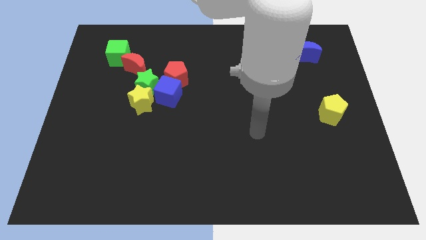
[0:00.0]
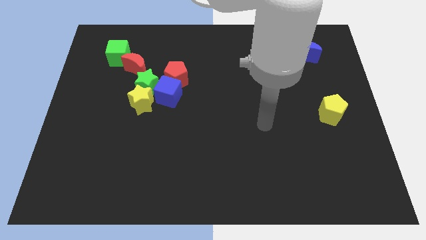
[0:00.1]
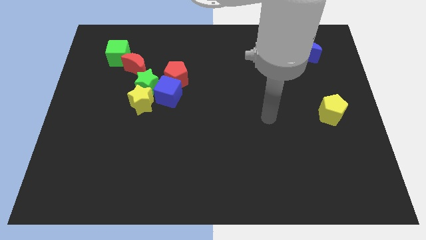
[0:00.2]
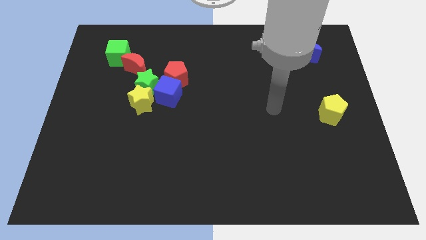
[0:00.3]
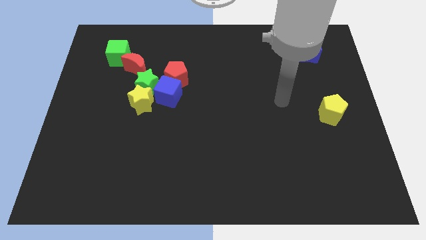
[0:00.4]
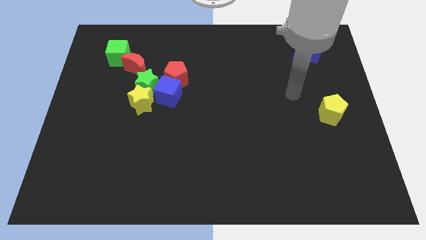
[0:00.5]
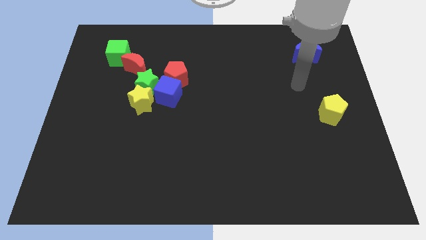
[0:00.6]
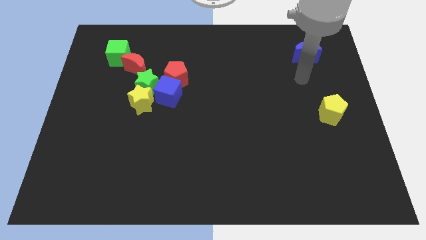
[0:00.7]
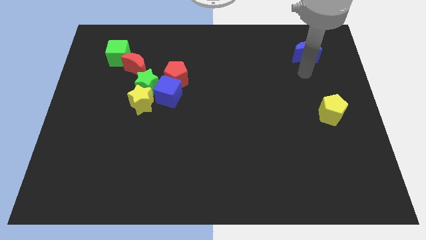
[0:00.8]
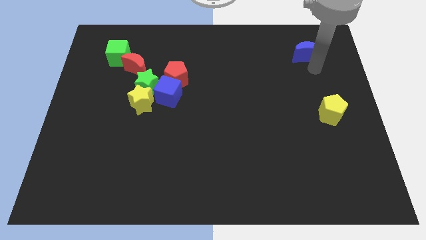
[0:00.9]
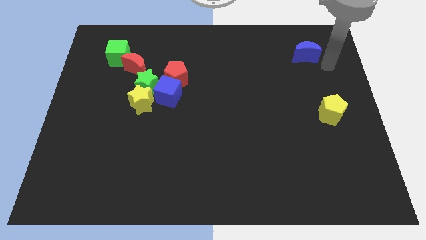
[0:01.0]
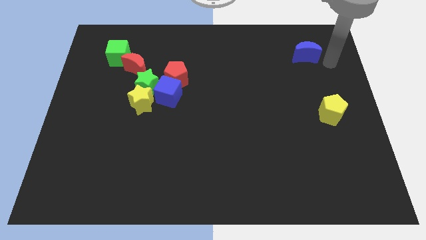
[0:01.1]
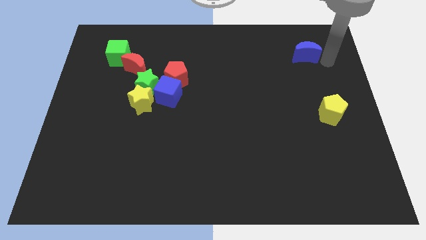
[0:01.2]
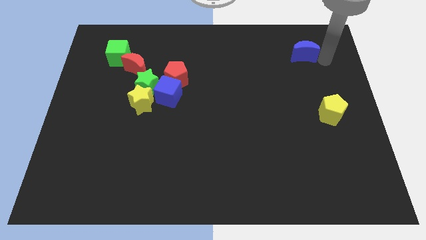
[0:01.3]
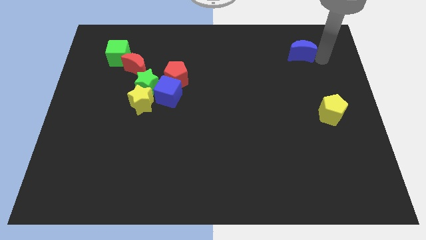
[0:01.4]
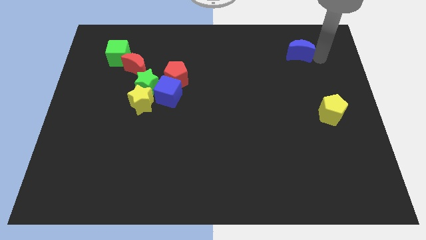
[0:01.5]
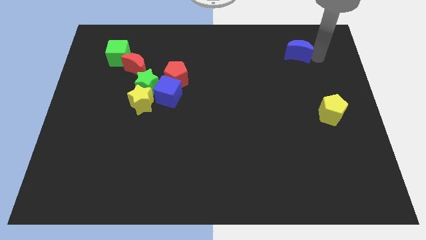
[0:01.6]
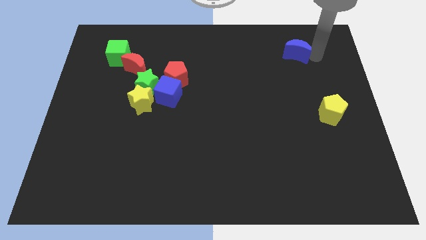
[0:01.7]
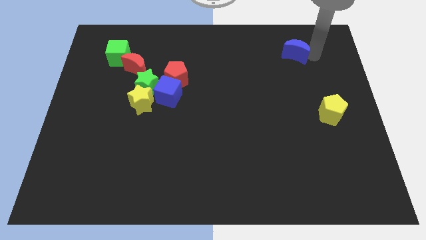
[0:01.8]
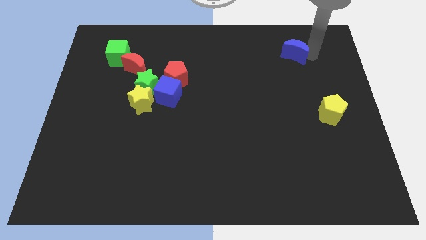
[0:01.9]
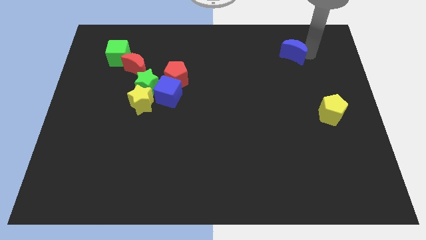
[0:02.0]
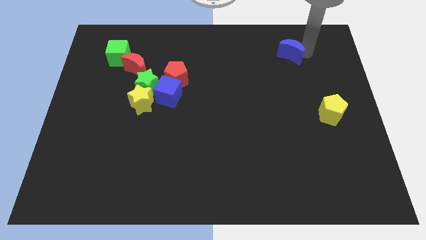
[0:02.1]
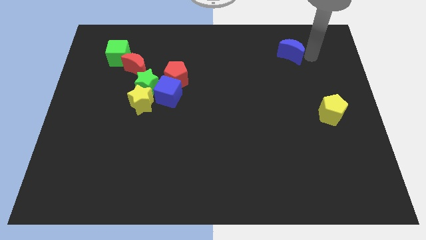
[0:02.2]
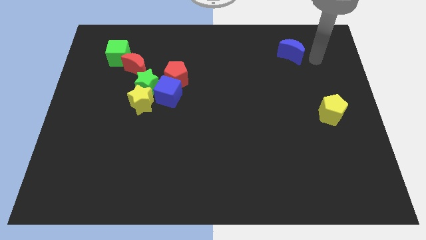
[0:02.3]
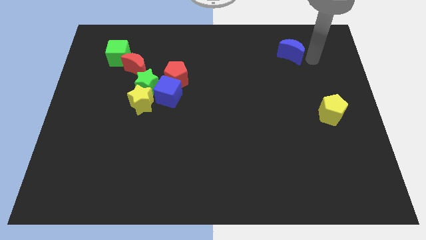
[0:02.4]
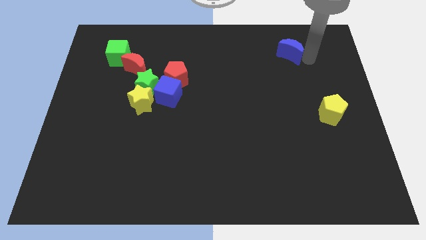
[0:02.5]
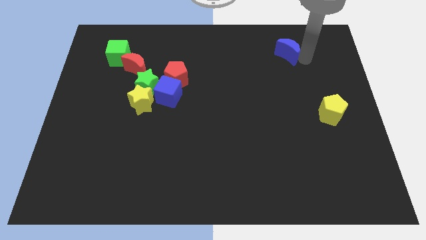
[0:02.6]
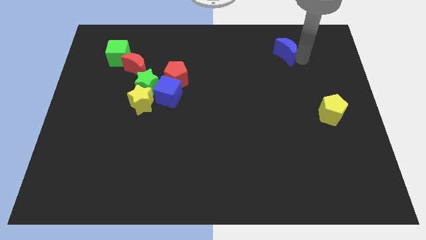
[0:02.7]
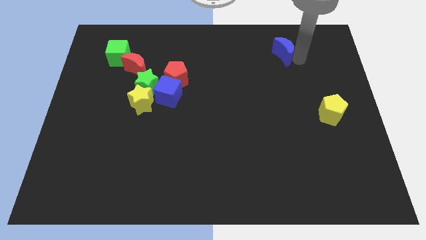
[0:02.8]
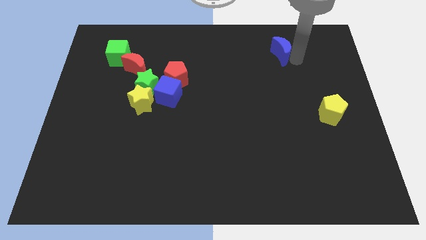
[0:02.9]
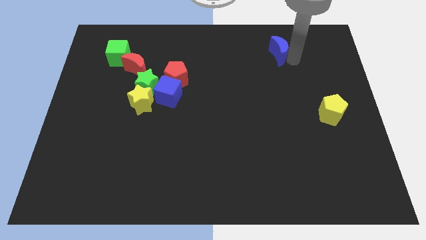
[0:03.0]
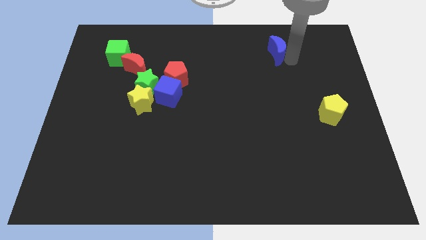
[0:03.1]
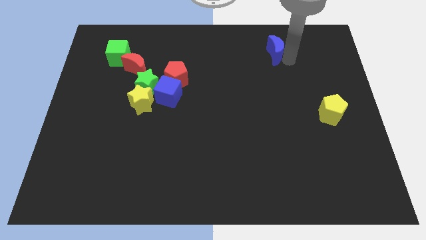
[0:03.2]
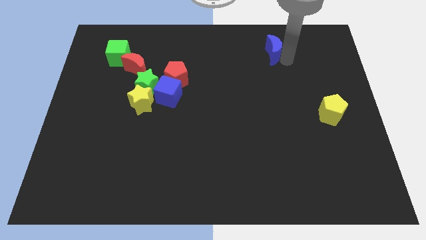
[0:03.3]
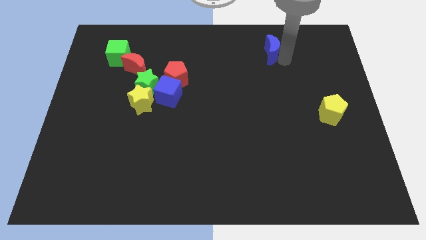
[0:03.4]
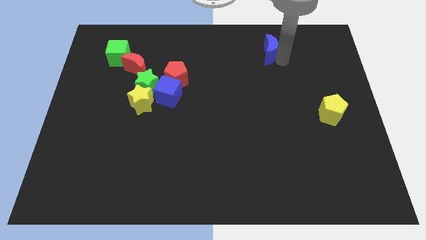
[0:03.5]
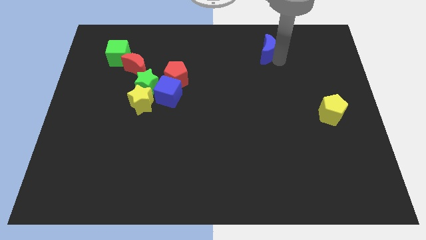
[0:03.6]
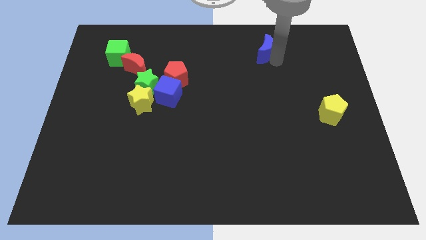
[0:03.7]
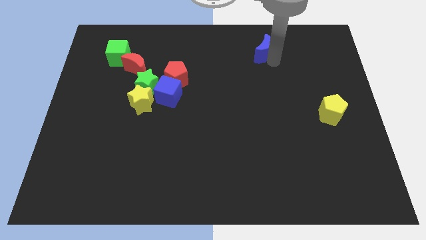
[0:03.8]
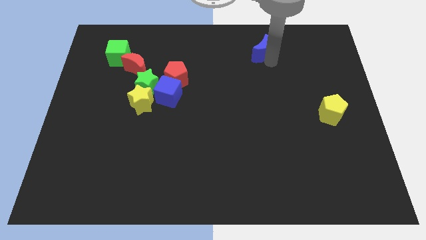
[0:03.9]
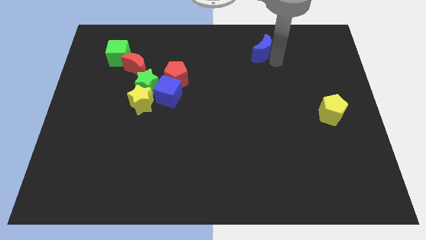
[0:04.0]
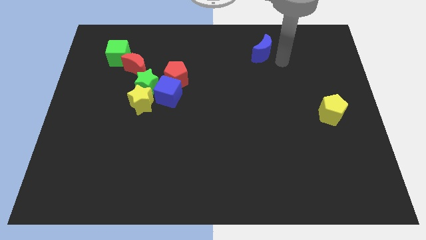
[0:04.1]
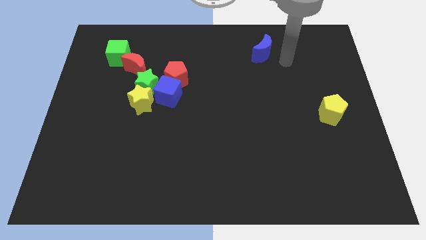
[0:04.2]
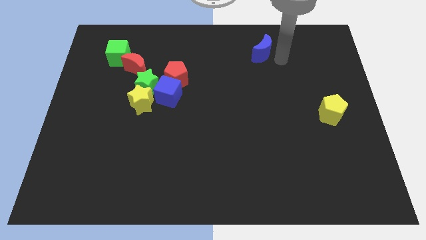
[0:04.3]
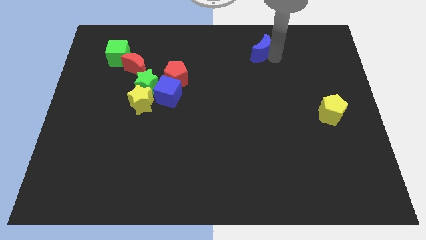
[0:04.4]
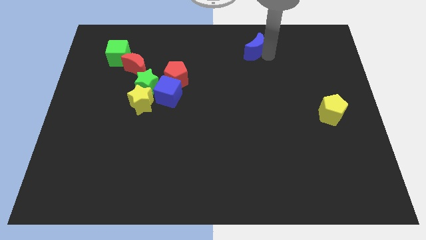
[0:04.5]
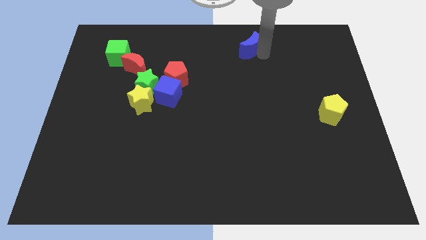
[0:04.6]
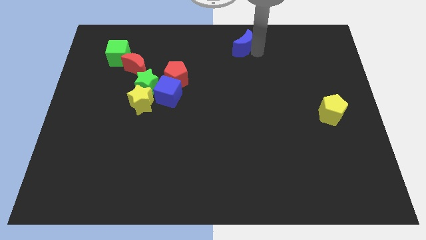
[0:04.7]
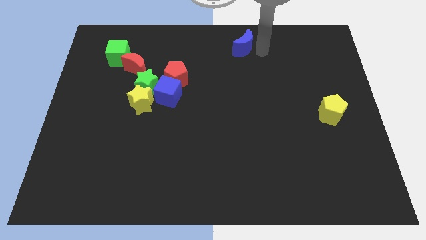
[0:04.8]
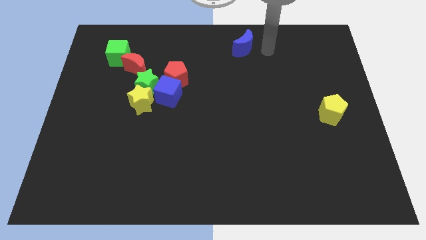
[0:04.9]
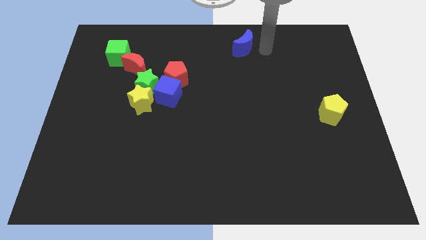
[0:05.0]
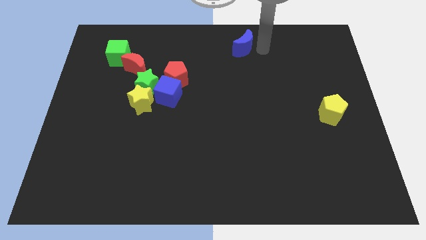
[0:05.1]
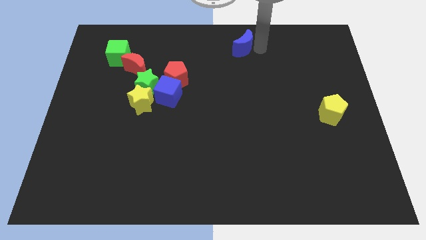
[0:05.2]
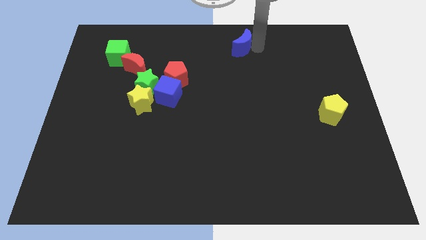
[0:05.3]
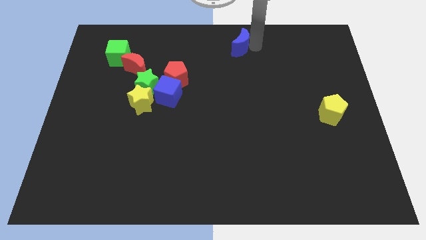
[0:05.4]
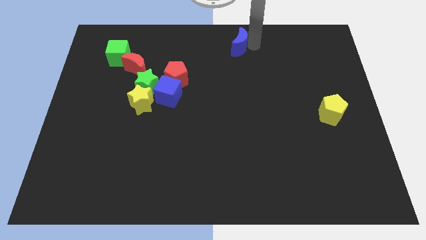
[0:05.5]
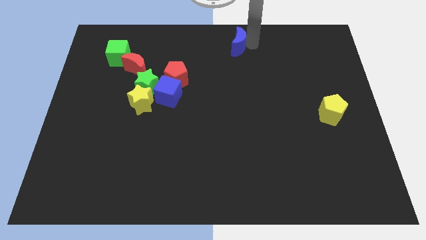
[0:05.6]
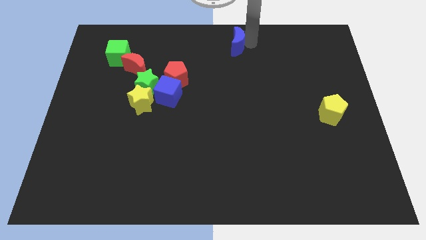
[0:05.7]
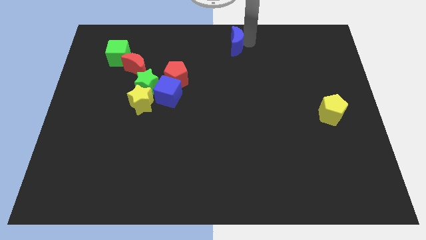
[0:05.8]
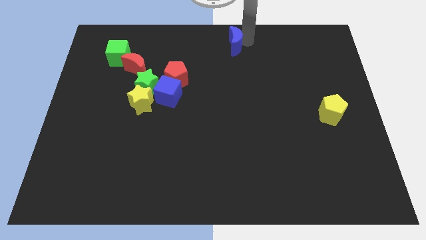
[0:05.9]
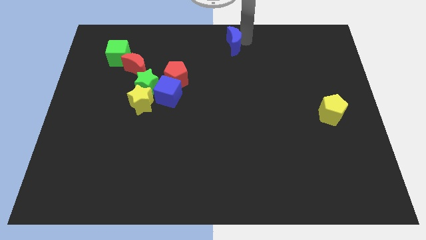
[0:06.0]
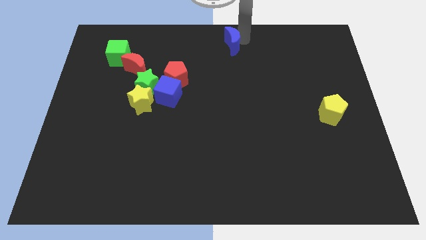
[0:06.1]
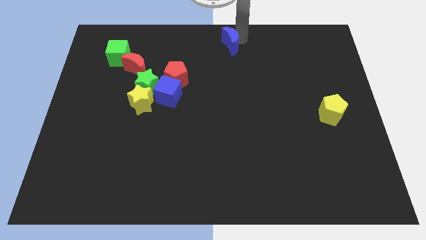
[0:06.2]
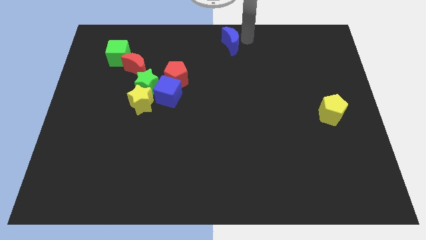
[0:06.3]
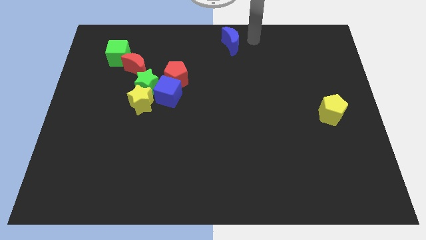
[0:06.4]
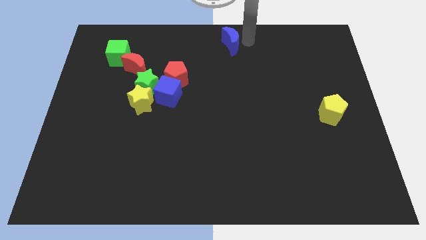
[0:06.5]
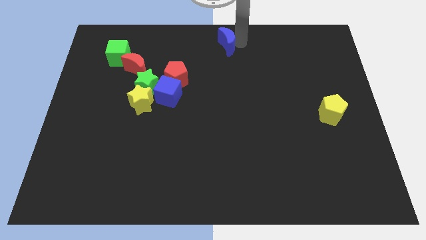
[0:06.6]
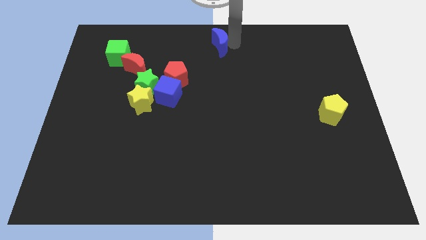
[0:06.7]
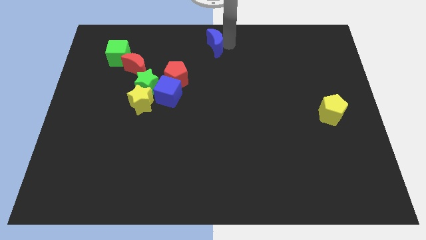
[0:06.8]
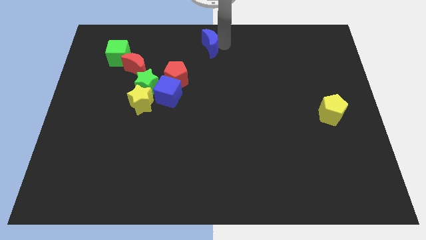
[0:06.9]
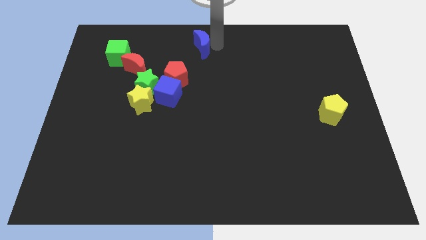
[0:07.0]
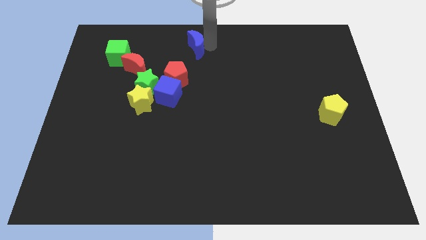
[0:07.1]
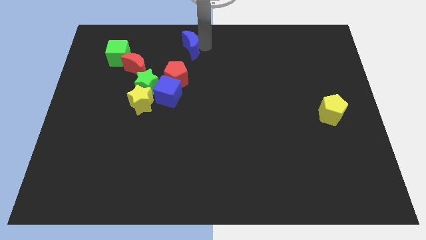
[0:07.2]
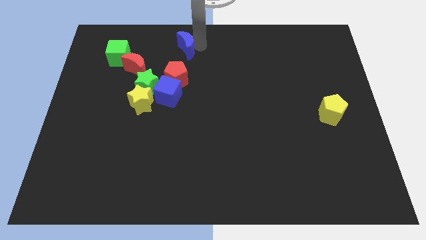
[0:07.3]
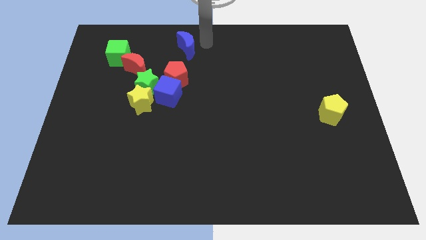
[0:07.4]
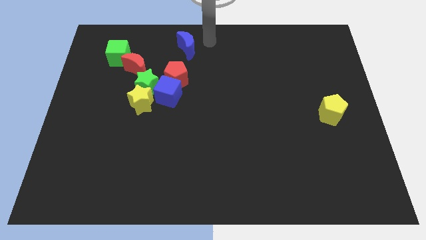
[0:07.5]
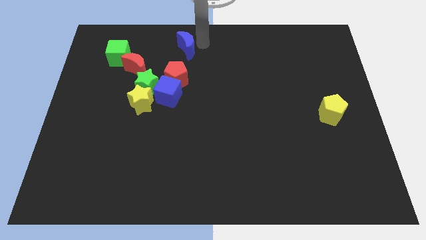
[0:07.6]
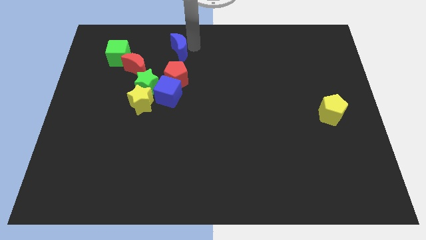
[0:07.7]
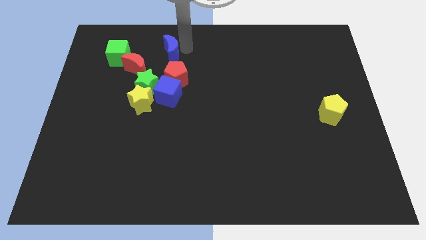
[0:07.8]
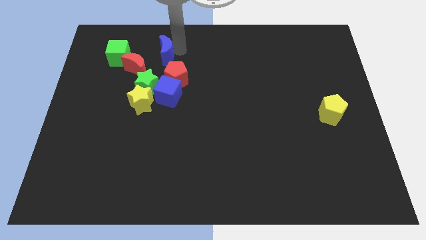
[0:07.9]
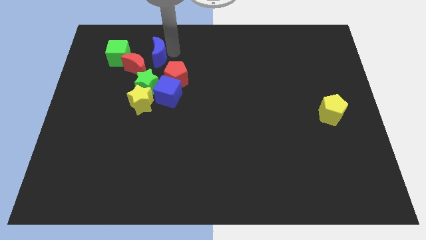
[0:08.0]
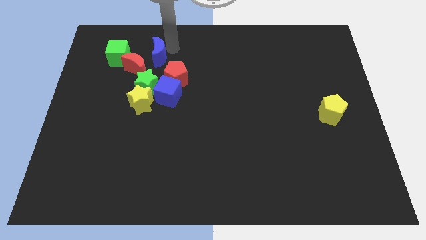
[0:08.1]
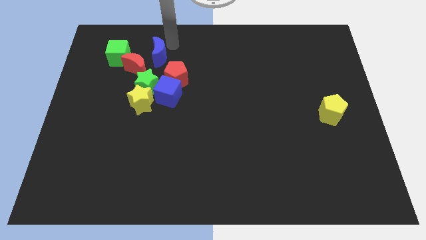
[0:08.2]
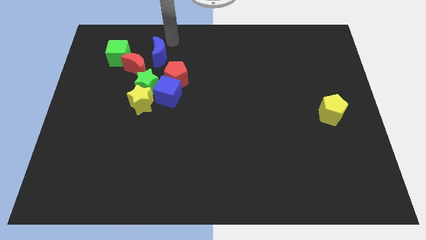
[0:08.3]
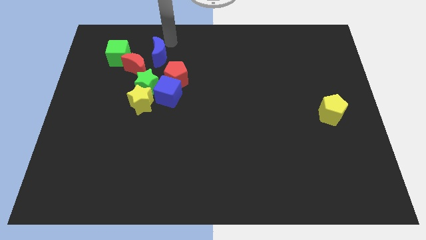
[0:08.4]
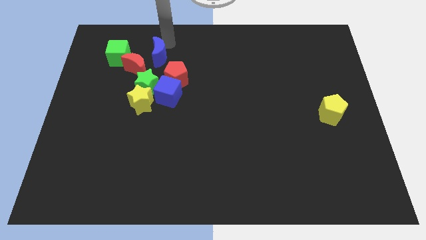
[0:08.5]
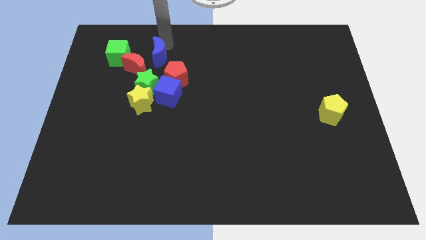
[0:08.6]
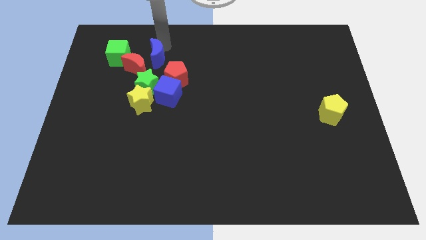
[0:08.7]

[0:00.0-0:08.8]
put the blue moon to the top side of the yellow star
